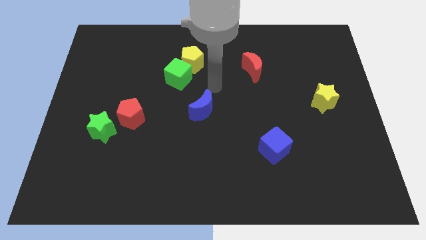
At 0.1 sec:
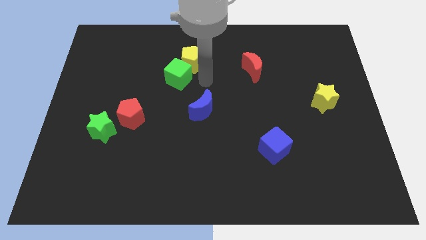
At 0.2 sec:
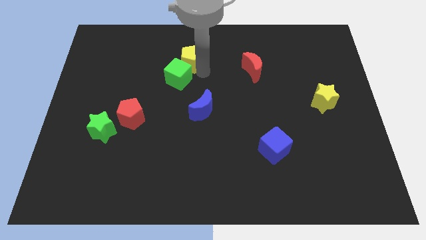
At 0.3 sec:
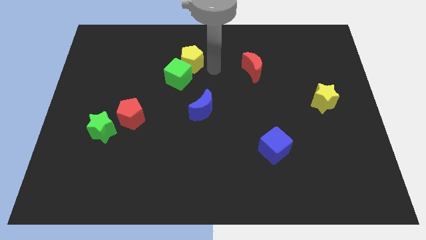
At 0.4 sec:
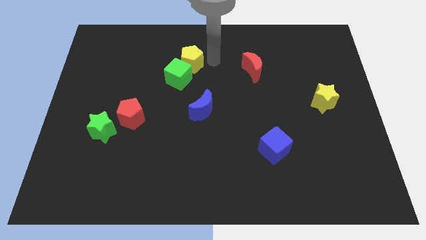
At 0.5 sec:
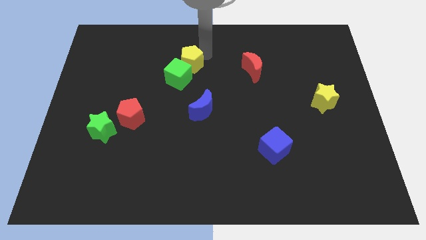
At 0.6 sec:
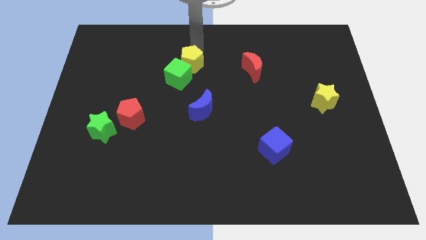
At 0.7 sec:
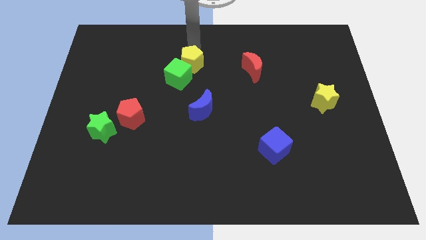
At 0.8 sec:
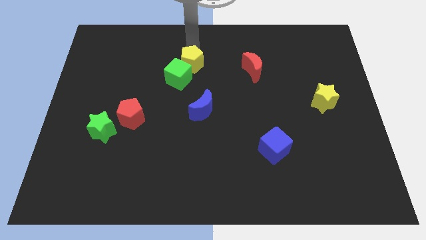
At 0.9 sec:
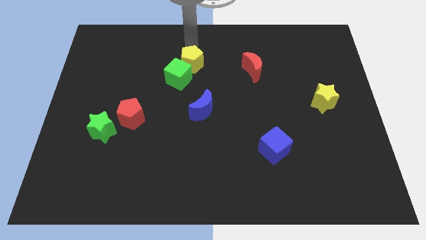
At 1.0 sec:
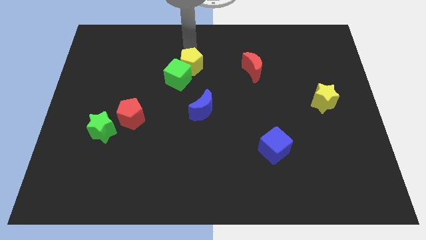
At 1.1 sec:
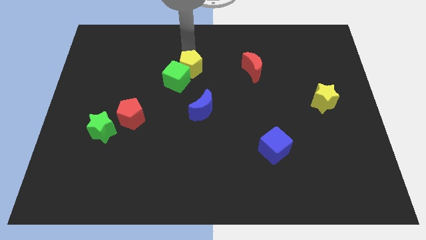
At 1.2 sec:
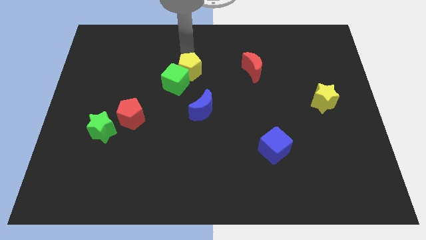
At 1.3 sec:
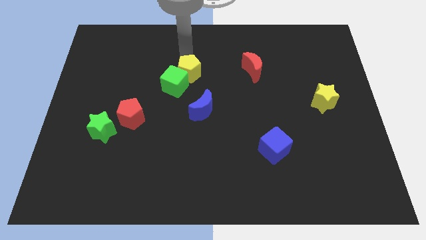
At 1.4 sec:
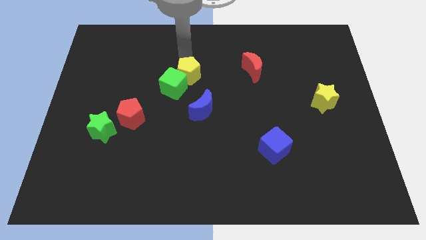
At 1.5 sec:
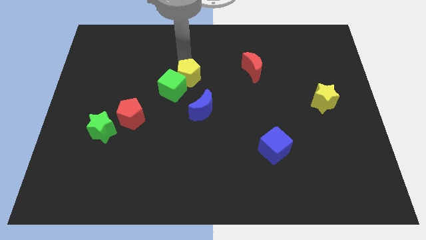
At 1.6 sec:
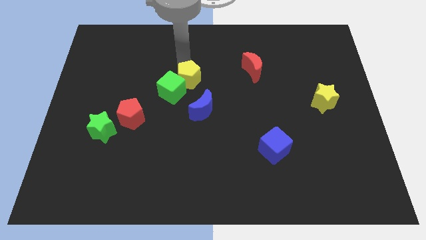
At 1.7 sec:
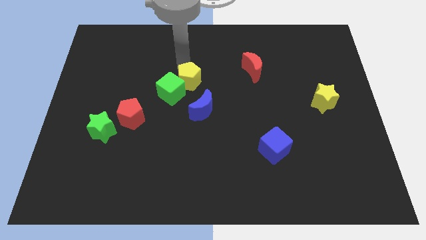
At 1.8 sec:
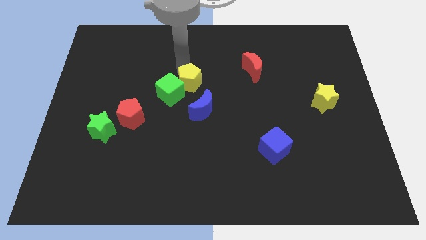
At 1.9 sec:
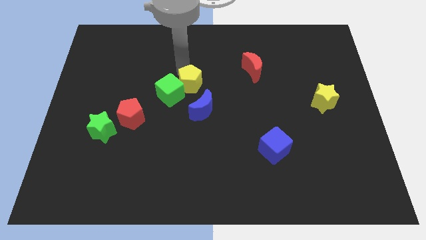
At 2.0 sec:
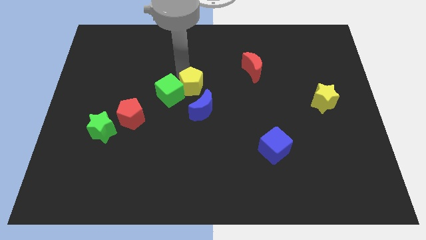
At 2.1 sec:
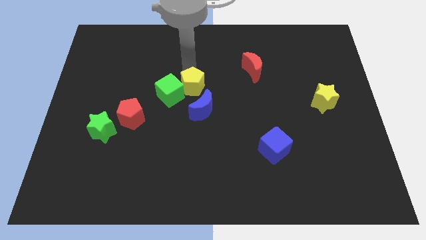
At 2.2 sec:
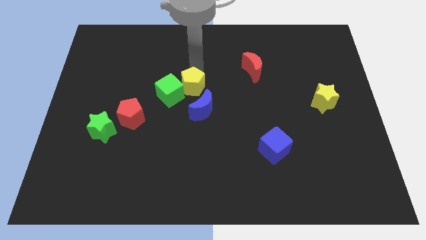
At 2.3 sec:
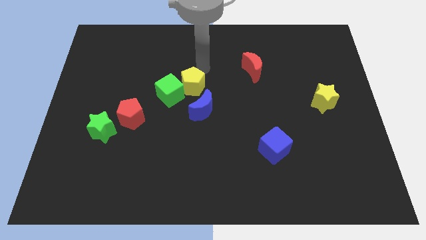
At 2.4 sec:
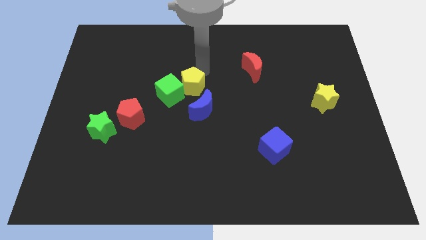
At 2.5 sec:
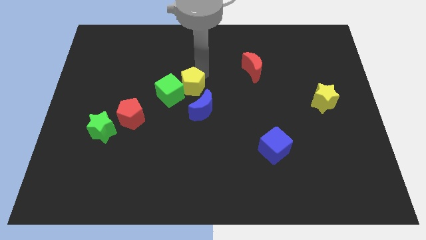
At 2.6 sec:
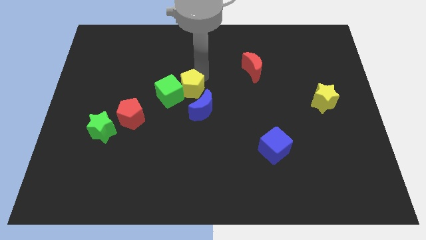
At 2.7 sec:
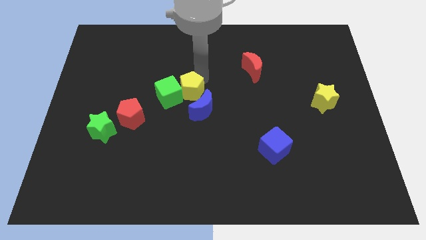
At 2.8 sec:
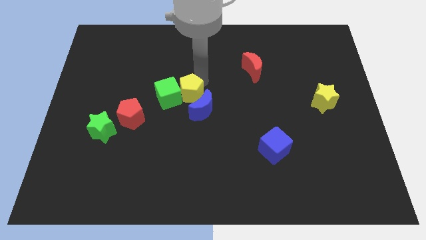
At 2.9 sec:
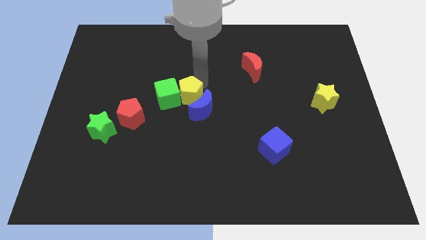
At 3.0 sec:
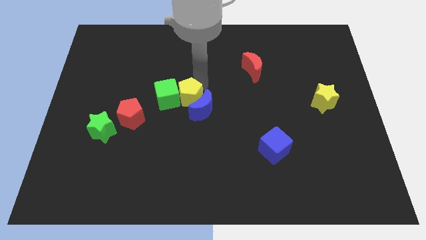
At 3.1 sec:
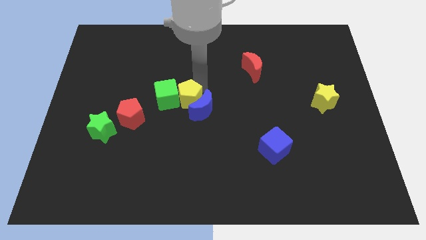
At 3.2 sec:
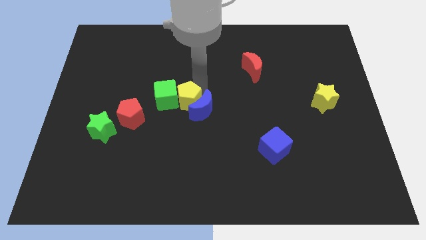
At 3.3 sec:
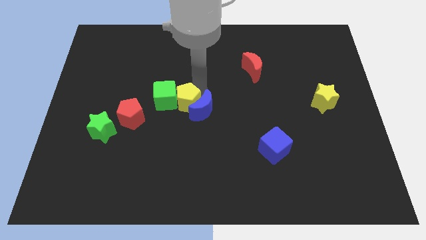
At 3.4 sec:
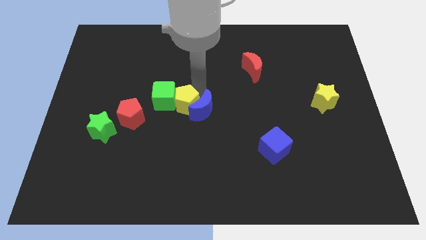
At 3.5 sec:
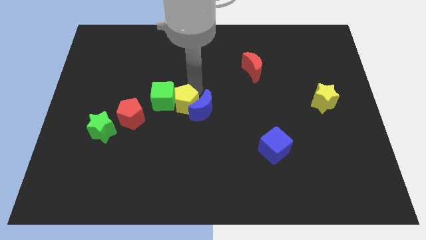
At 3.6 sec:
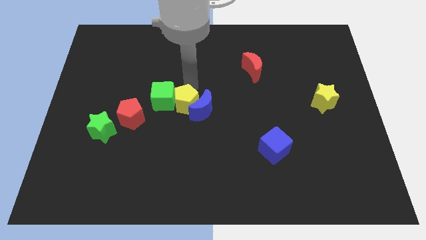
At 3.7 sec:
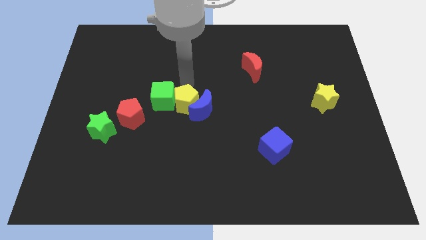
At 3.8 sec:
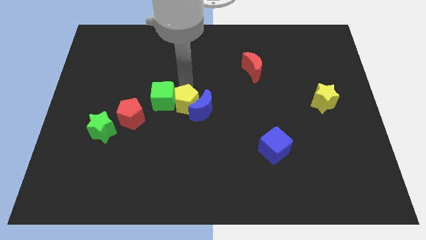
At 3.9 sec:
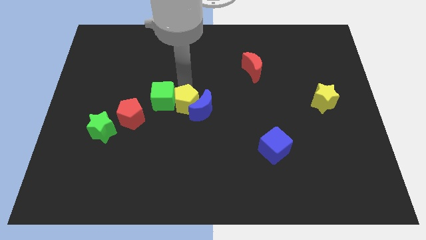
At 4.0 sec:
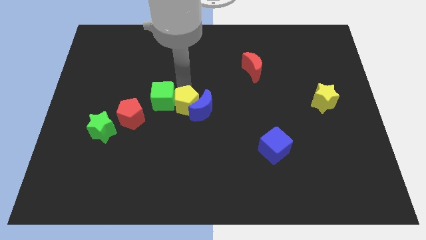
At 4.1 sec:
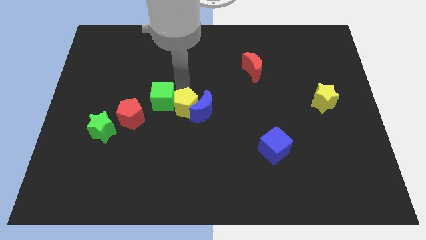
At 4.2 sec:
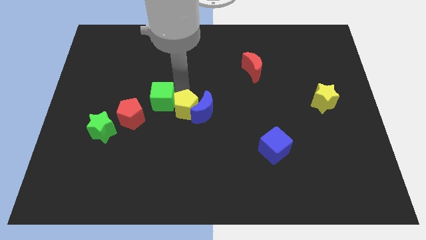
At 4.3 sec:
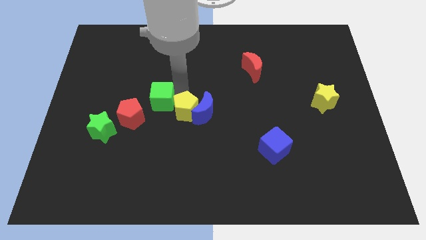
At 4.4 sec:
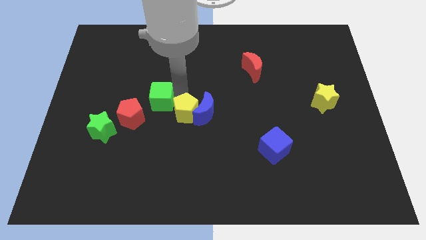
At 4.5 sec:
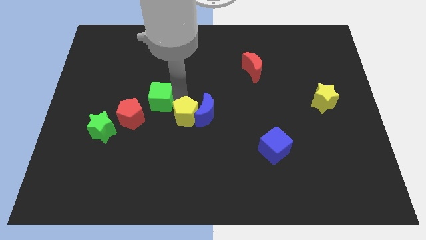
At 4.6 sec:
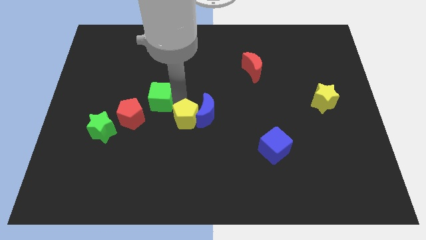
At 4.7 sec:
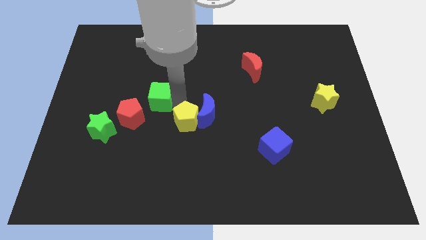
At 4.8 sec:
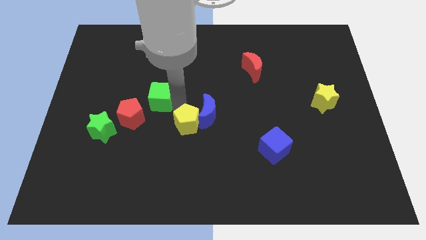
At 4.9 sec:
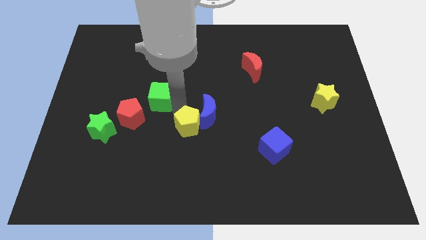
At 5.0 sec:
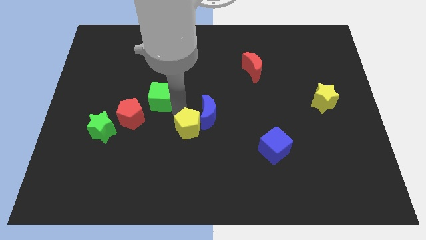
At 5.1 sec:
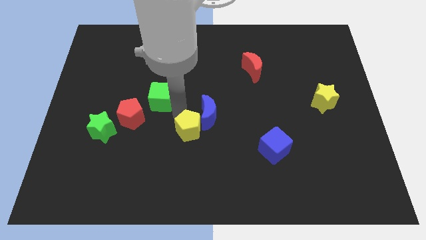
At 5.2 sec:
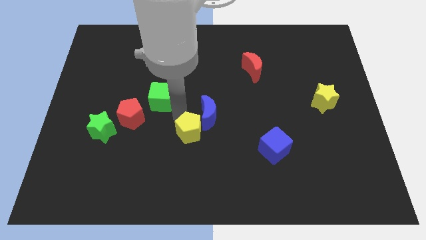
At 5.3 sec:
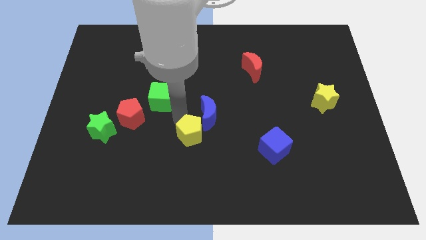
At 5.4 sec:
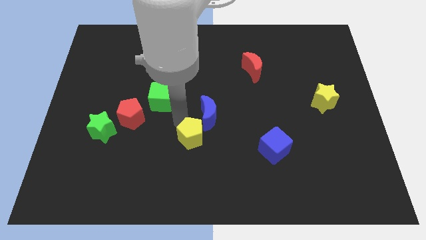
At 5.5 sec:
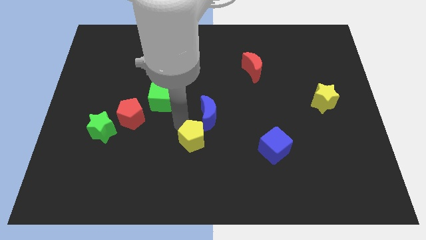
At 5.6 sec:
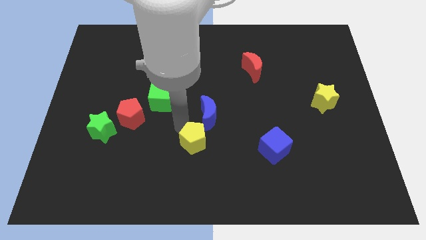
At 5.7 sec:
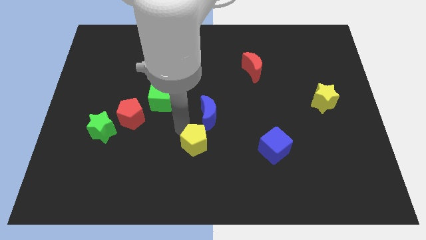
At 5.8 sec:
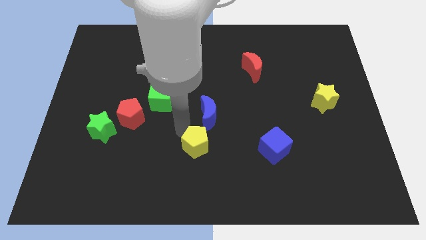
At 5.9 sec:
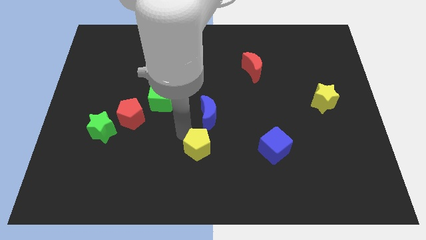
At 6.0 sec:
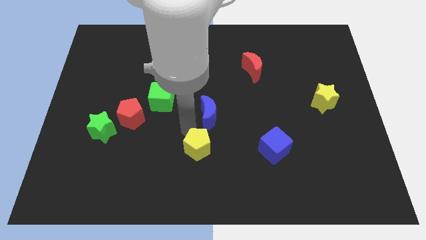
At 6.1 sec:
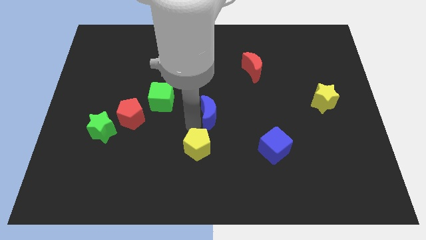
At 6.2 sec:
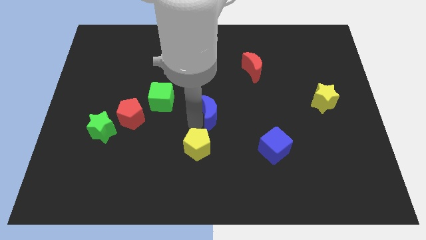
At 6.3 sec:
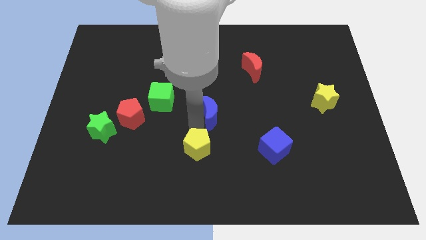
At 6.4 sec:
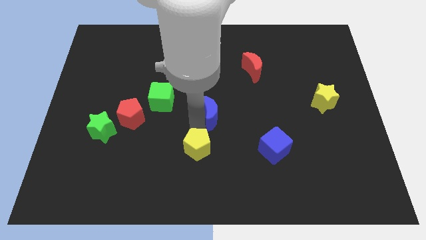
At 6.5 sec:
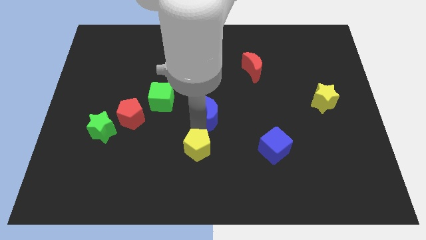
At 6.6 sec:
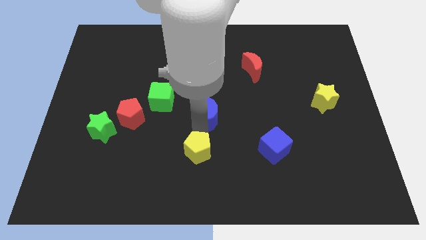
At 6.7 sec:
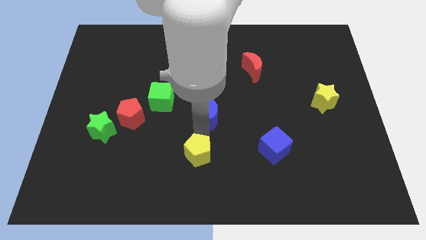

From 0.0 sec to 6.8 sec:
put the yellow pentagon to the bottom side

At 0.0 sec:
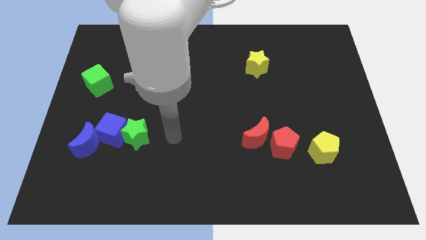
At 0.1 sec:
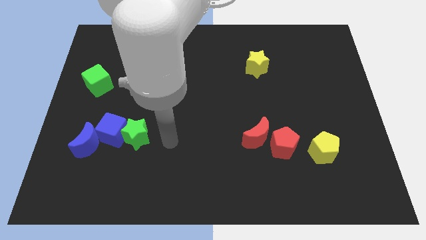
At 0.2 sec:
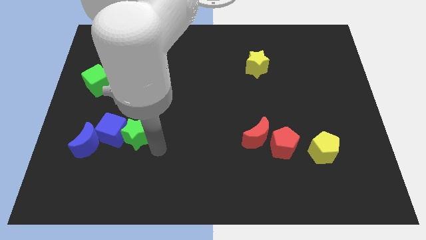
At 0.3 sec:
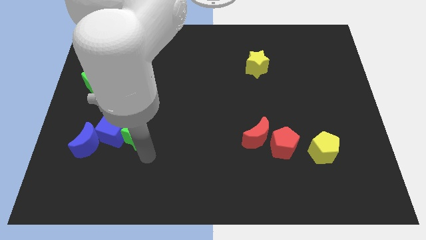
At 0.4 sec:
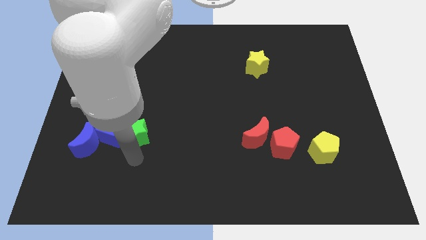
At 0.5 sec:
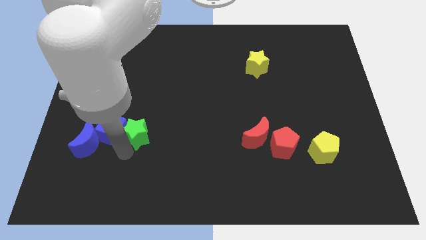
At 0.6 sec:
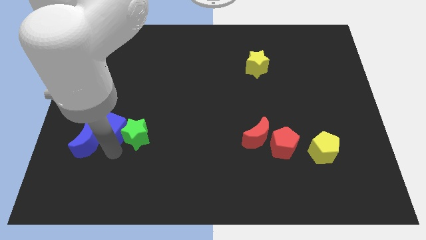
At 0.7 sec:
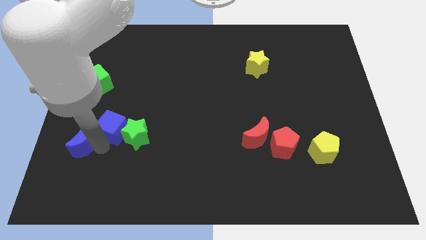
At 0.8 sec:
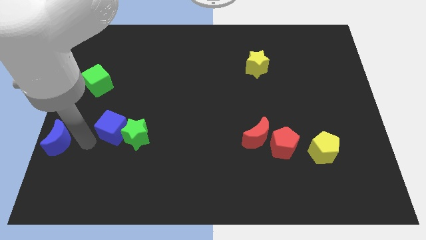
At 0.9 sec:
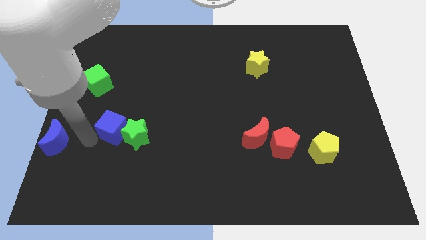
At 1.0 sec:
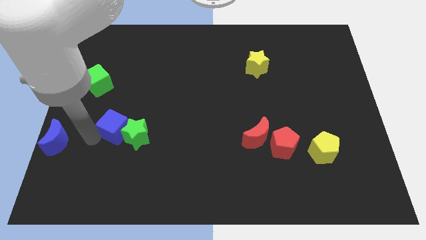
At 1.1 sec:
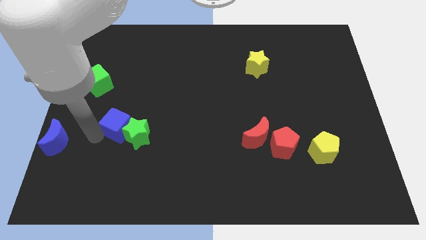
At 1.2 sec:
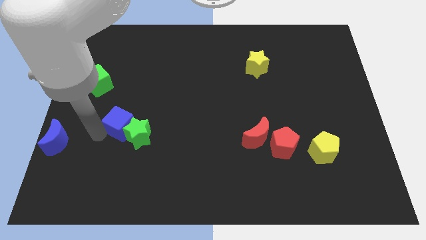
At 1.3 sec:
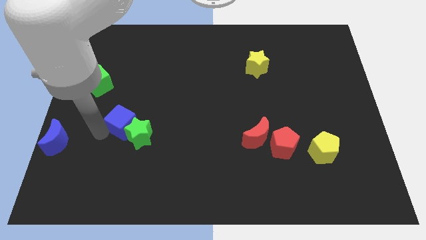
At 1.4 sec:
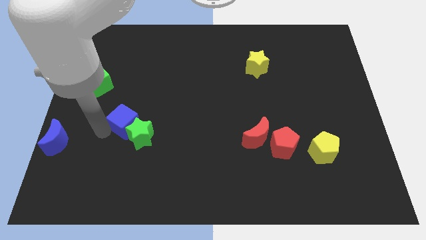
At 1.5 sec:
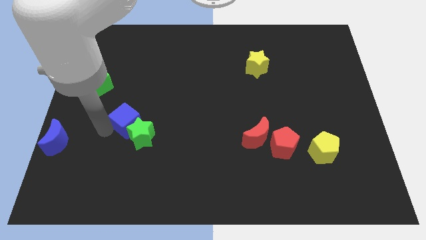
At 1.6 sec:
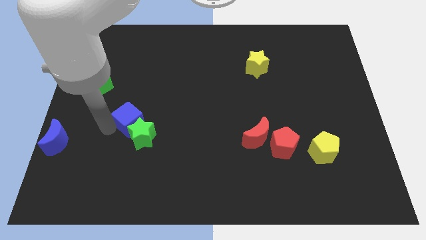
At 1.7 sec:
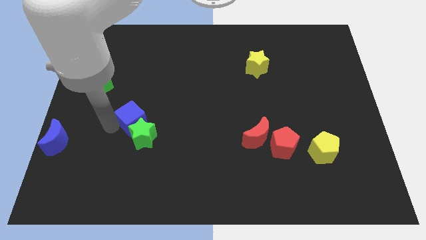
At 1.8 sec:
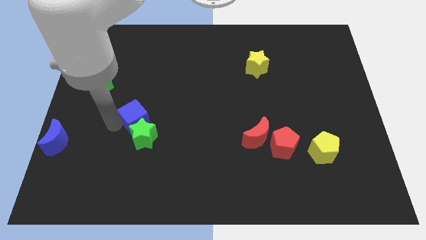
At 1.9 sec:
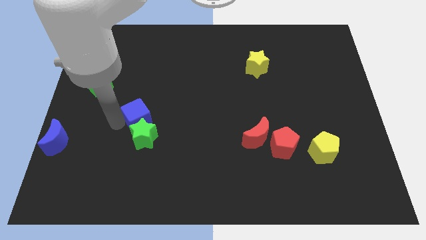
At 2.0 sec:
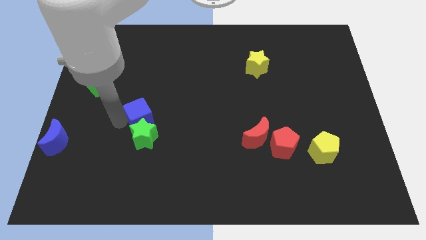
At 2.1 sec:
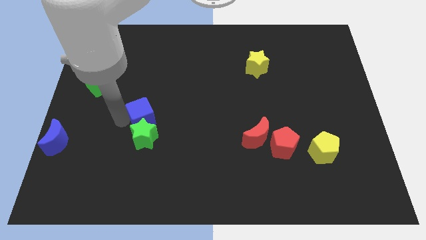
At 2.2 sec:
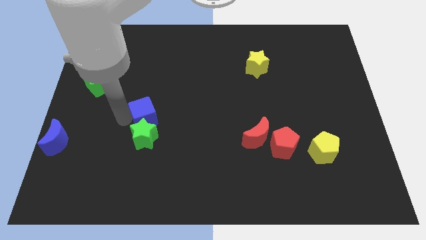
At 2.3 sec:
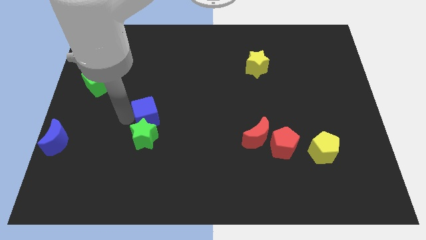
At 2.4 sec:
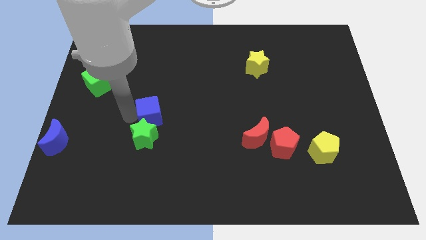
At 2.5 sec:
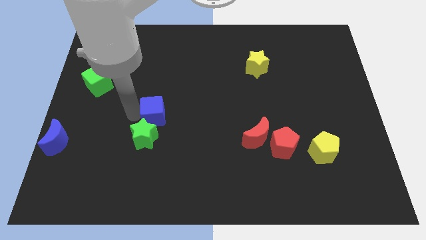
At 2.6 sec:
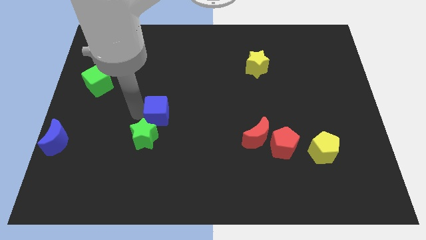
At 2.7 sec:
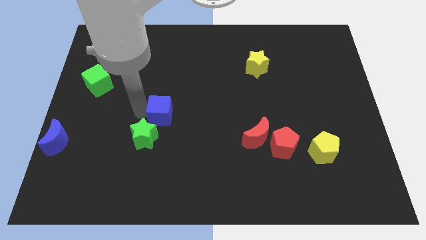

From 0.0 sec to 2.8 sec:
slide the blue cube to the middle
